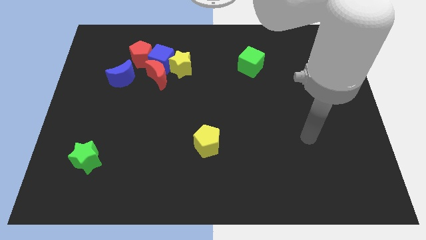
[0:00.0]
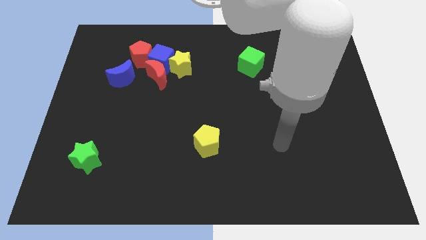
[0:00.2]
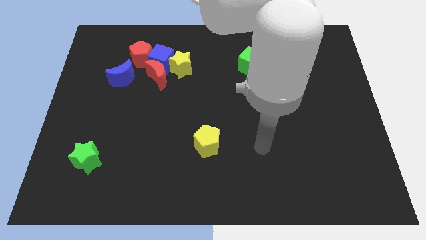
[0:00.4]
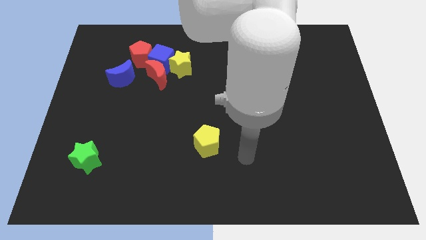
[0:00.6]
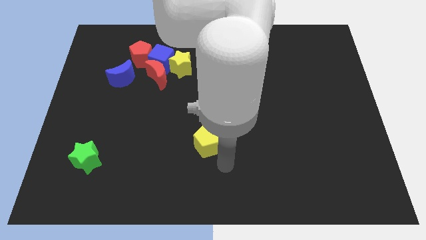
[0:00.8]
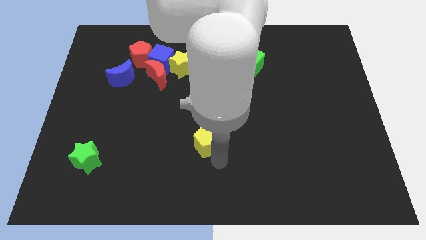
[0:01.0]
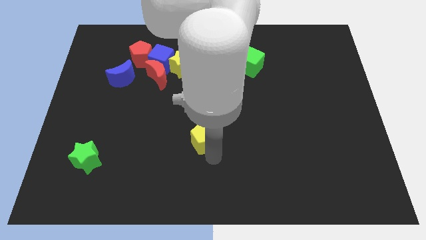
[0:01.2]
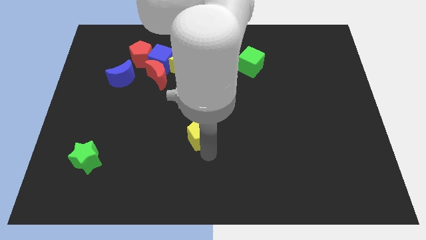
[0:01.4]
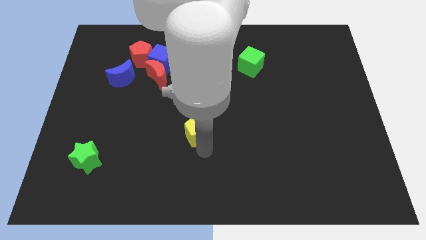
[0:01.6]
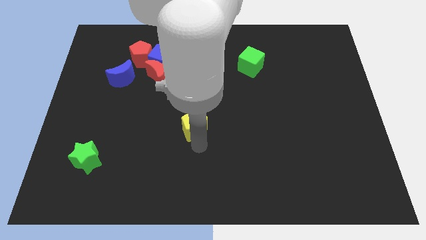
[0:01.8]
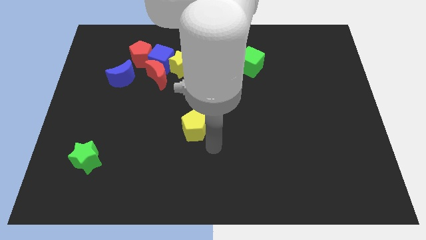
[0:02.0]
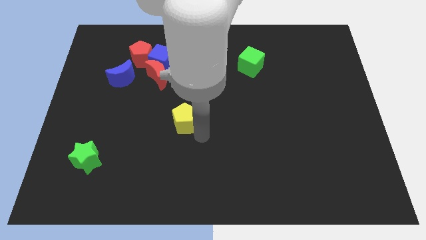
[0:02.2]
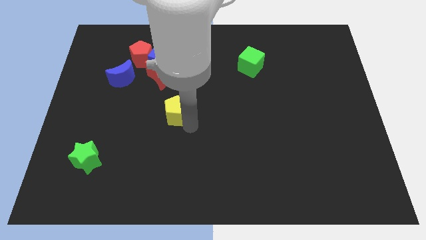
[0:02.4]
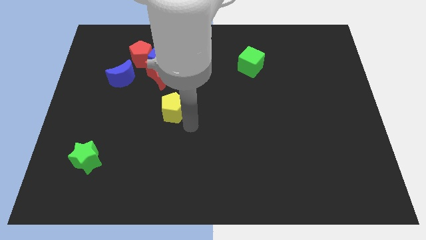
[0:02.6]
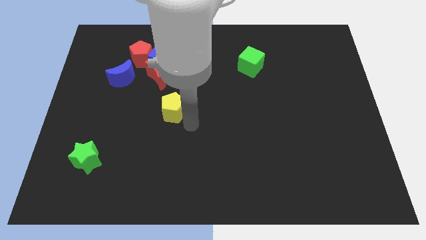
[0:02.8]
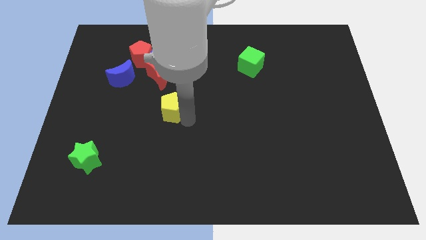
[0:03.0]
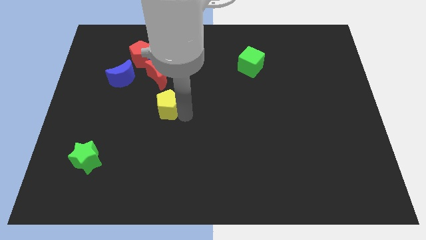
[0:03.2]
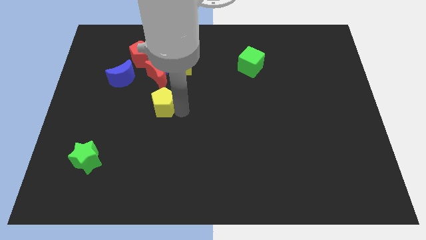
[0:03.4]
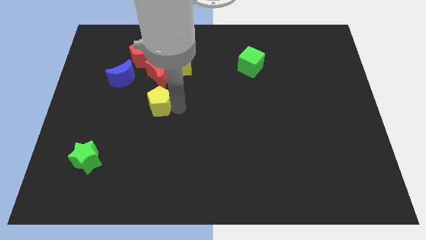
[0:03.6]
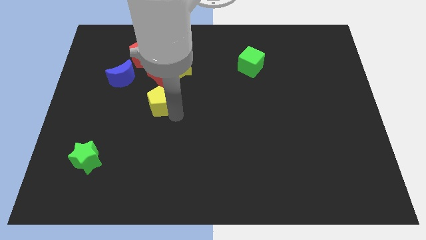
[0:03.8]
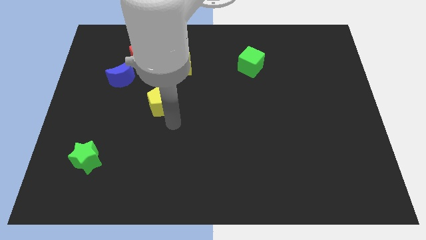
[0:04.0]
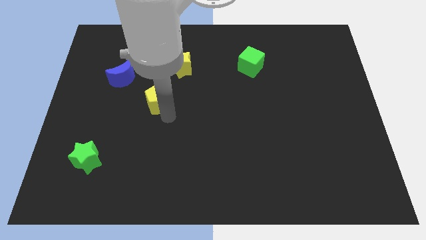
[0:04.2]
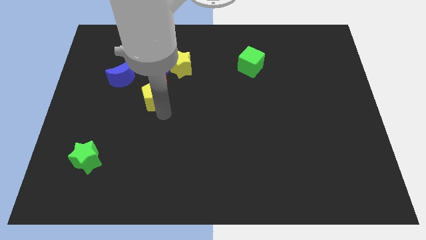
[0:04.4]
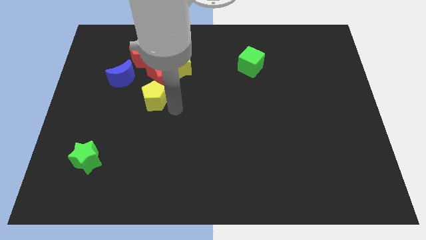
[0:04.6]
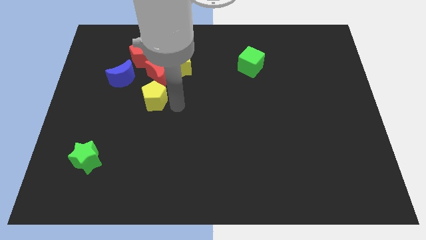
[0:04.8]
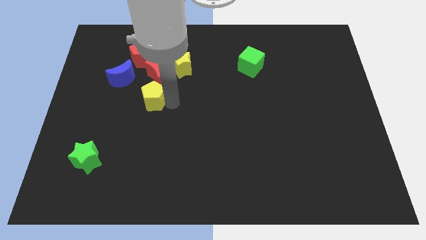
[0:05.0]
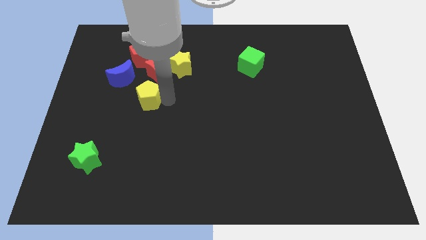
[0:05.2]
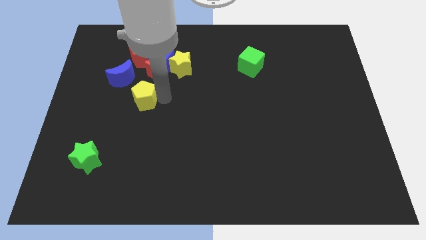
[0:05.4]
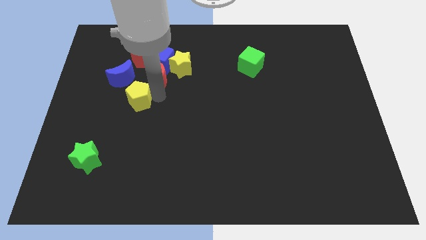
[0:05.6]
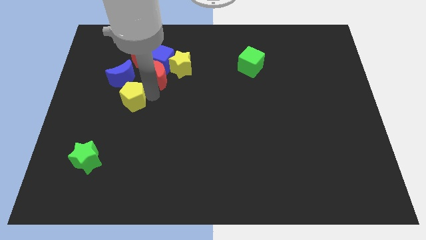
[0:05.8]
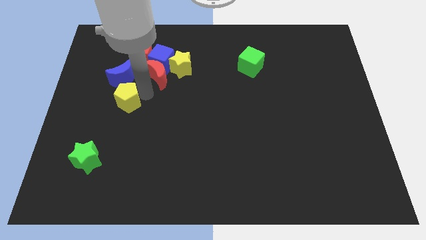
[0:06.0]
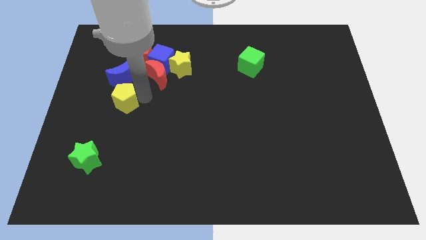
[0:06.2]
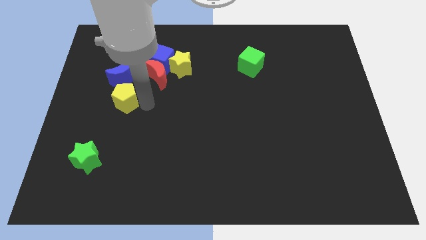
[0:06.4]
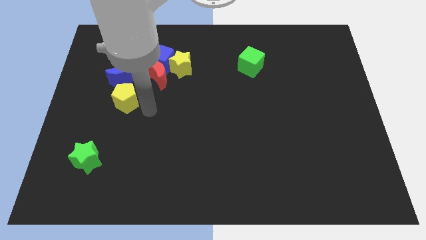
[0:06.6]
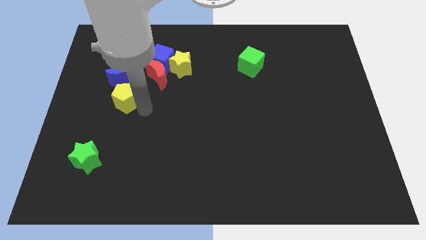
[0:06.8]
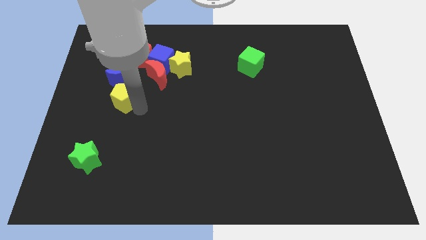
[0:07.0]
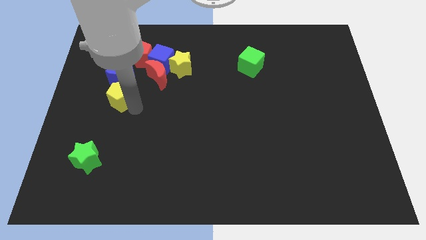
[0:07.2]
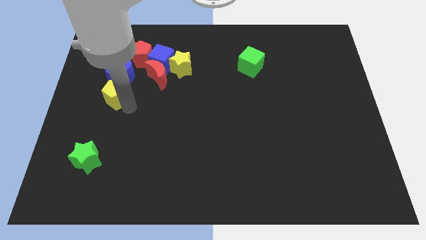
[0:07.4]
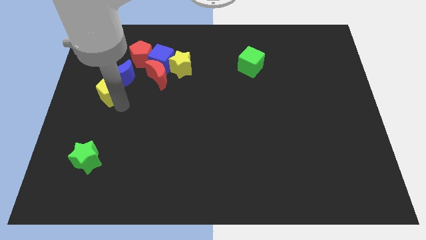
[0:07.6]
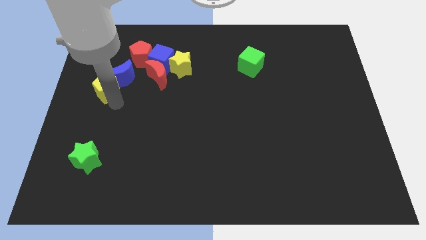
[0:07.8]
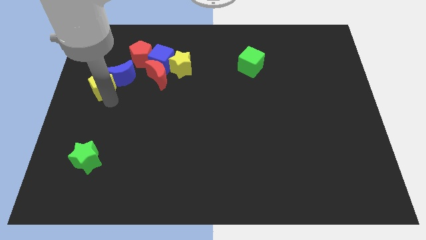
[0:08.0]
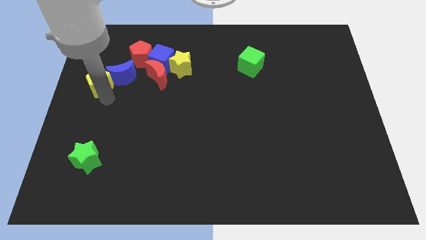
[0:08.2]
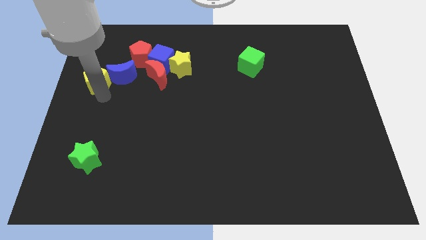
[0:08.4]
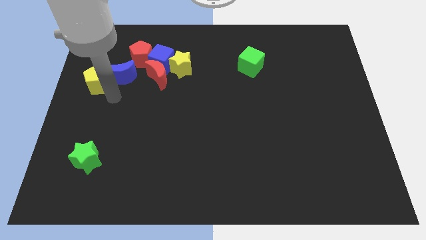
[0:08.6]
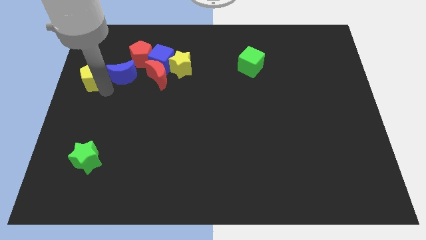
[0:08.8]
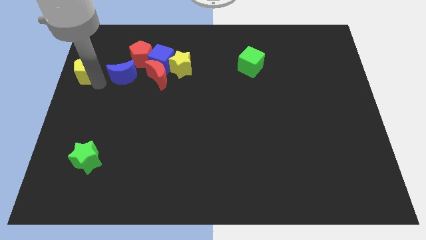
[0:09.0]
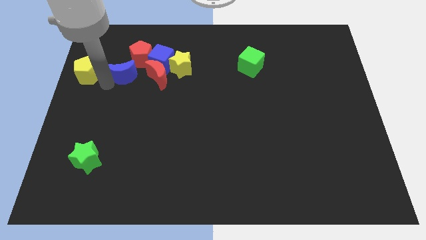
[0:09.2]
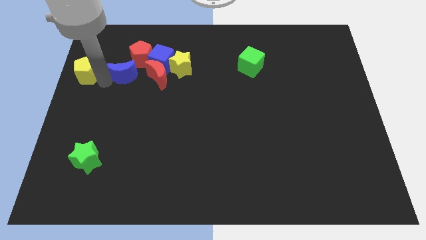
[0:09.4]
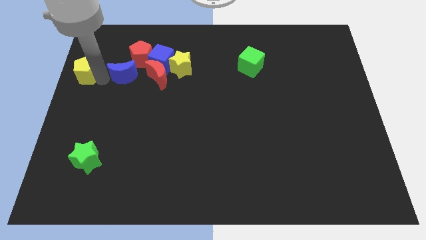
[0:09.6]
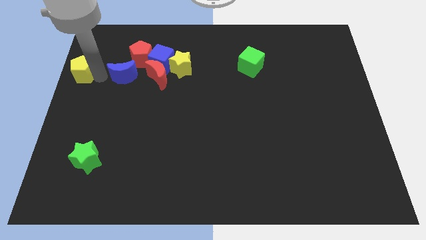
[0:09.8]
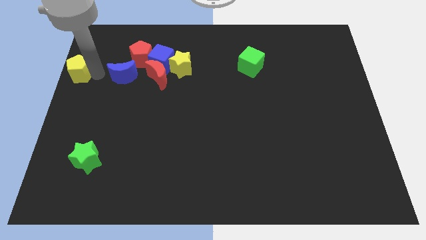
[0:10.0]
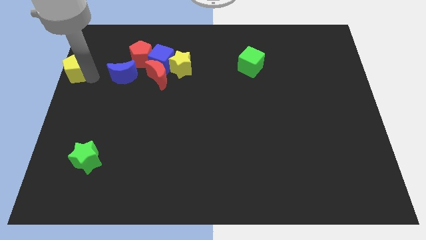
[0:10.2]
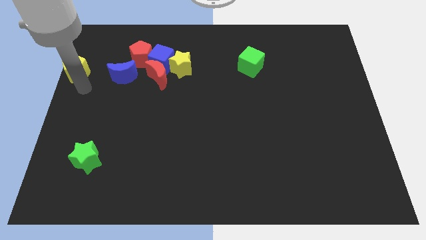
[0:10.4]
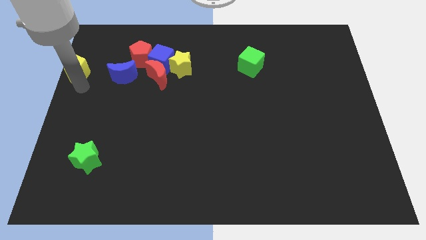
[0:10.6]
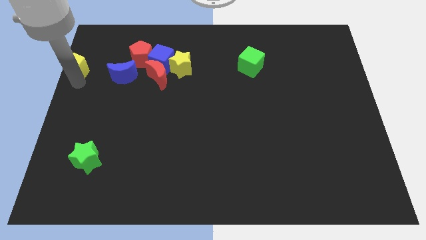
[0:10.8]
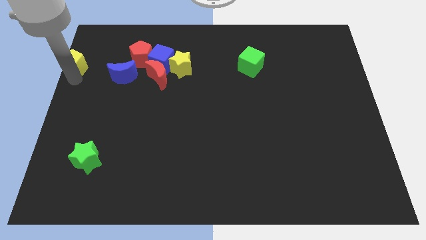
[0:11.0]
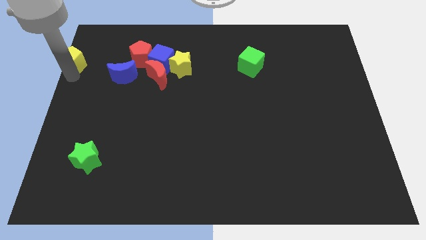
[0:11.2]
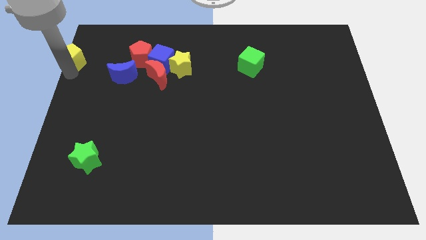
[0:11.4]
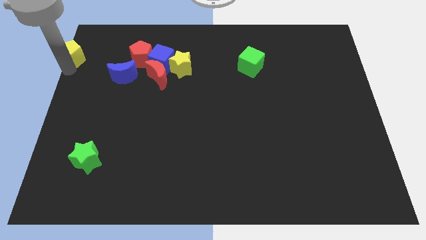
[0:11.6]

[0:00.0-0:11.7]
move the yellow pentagon to the top left
